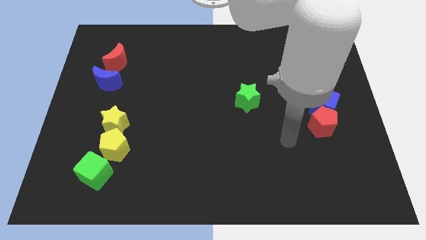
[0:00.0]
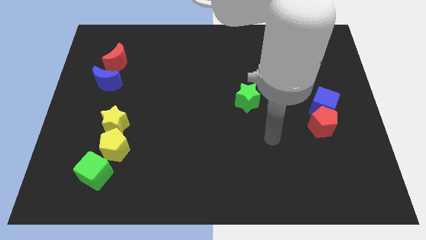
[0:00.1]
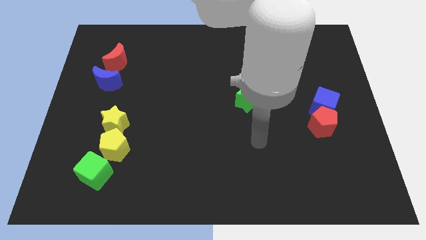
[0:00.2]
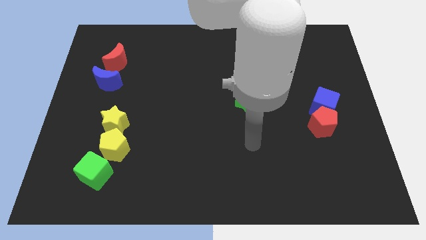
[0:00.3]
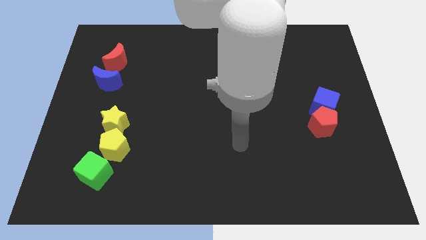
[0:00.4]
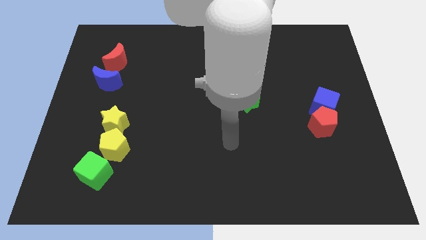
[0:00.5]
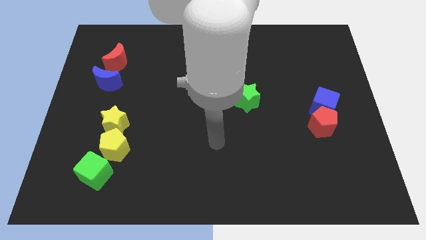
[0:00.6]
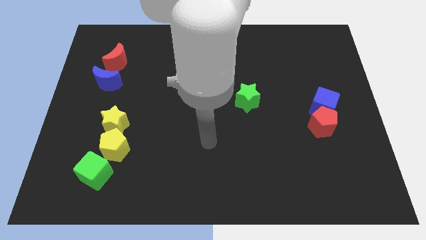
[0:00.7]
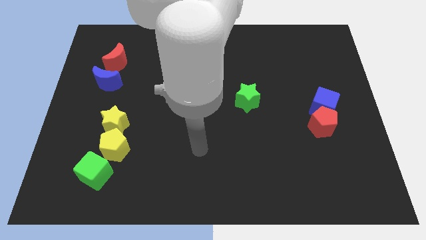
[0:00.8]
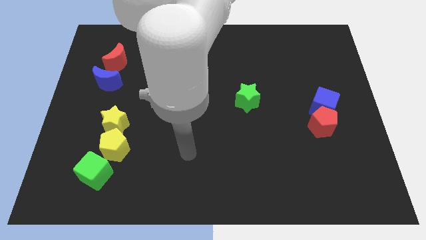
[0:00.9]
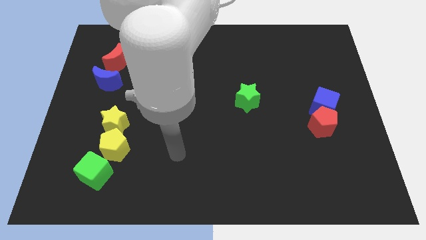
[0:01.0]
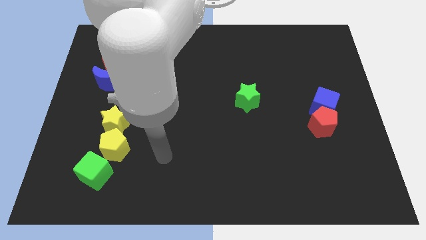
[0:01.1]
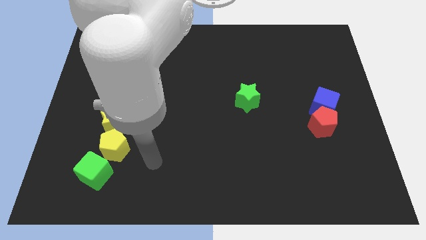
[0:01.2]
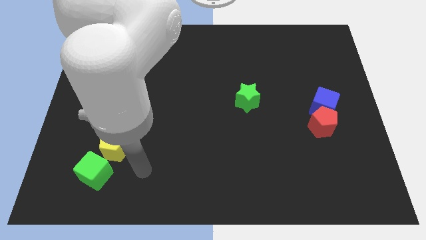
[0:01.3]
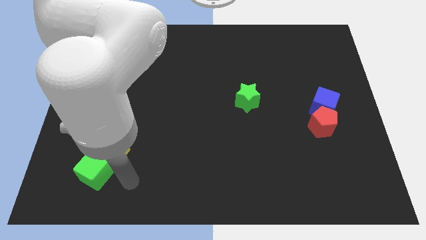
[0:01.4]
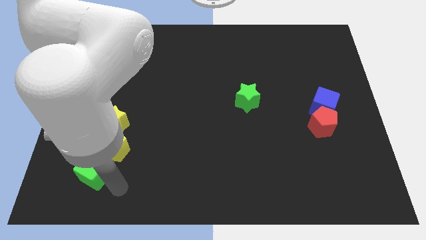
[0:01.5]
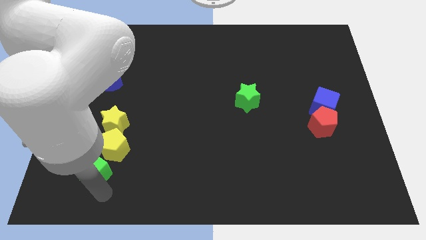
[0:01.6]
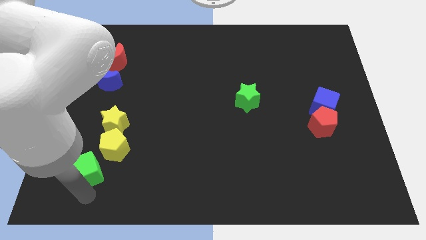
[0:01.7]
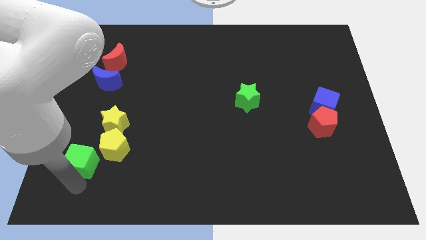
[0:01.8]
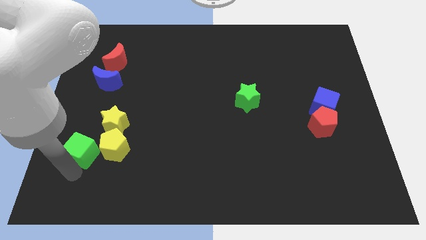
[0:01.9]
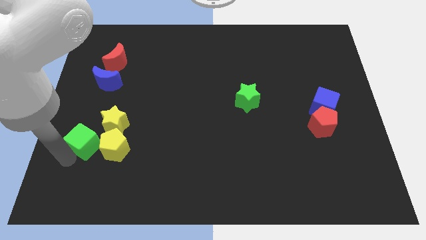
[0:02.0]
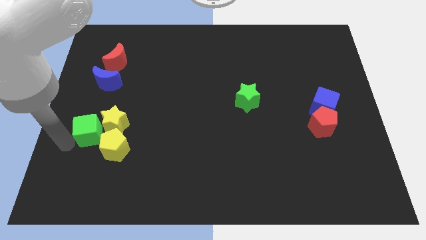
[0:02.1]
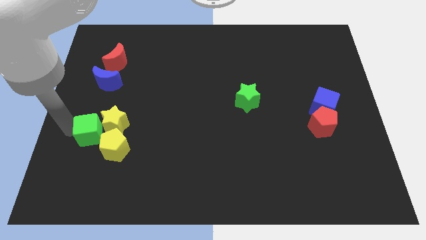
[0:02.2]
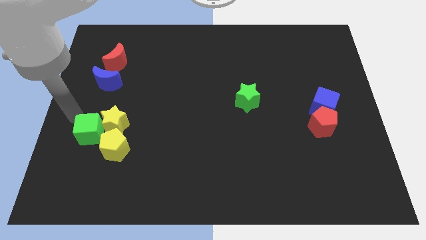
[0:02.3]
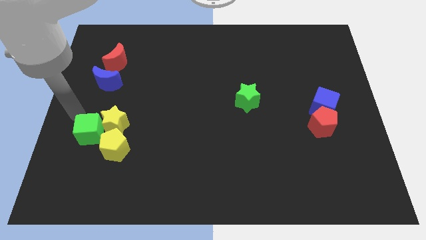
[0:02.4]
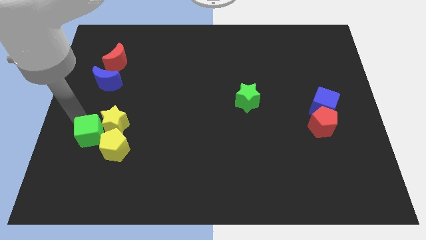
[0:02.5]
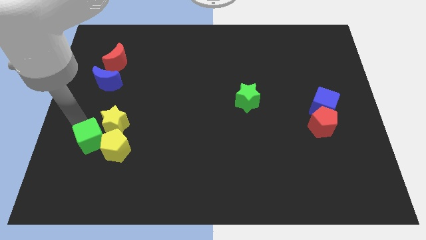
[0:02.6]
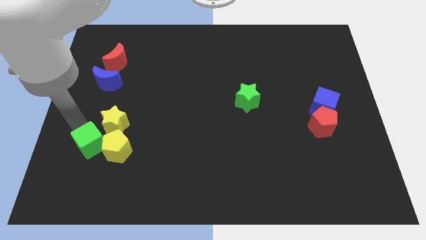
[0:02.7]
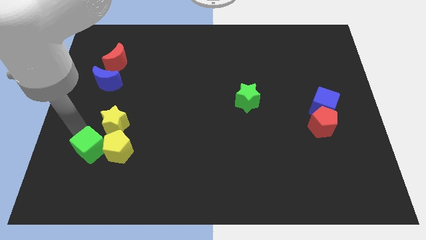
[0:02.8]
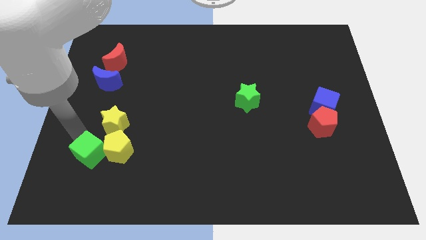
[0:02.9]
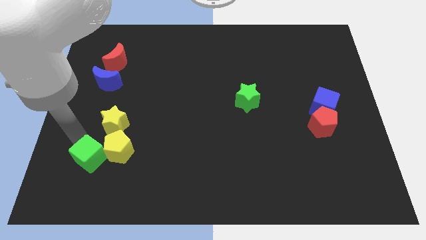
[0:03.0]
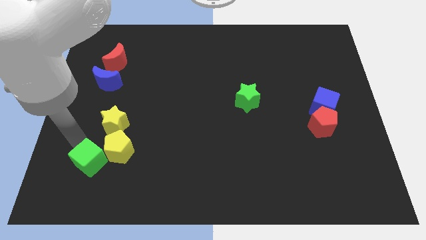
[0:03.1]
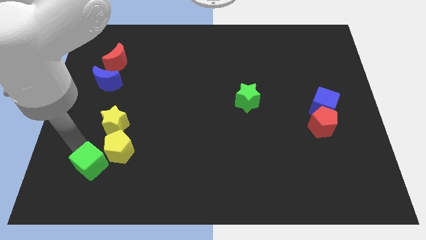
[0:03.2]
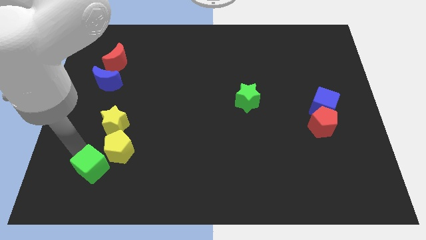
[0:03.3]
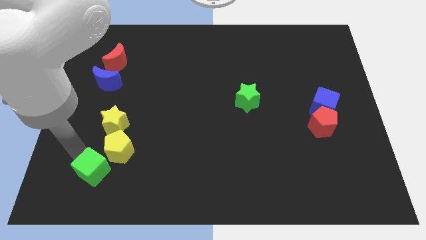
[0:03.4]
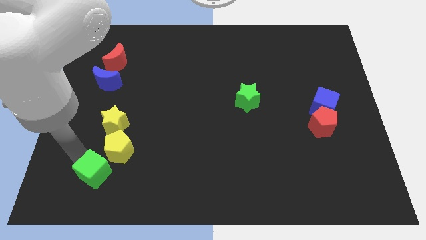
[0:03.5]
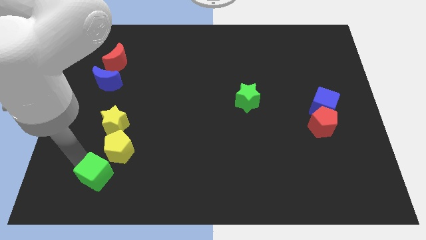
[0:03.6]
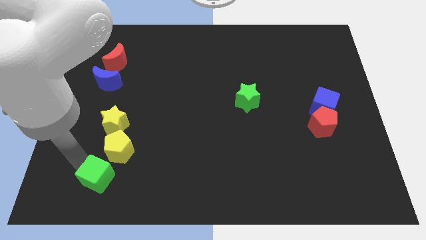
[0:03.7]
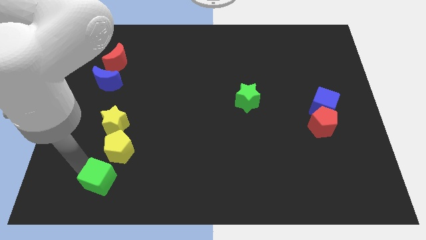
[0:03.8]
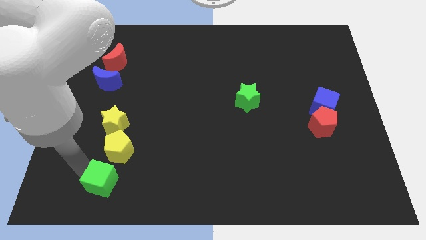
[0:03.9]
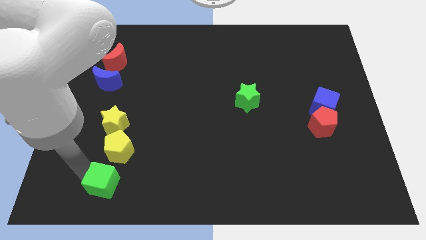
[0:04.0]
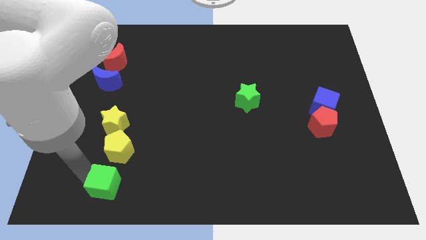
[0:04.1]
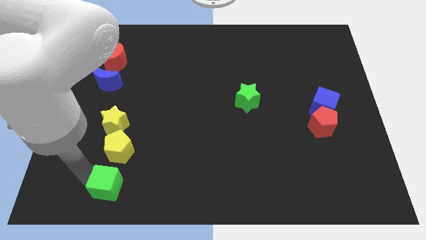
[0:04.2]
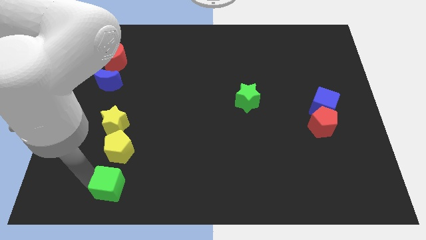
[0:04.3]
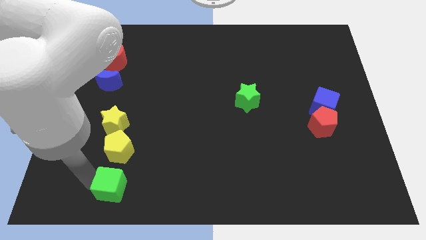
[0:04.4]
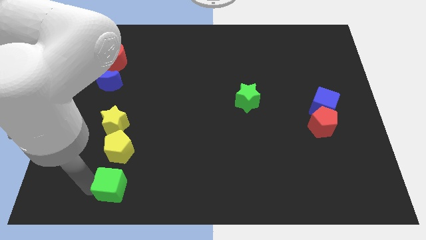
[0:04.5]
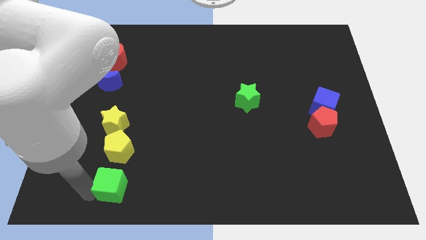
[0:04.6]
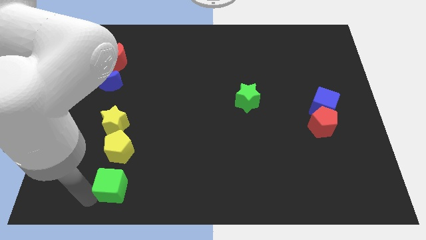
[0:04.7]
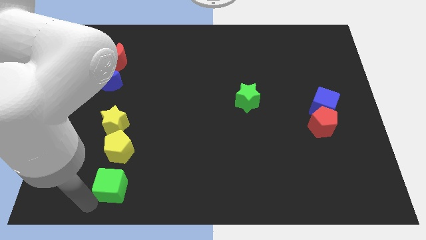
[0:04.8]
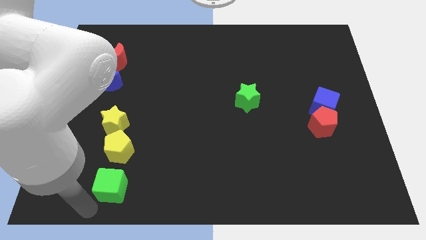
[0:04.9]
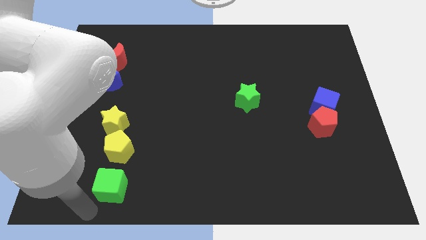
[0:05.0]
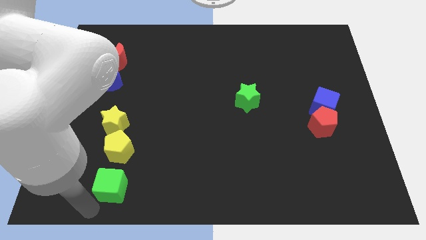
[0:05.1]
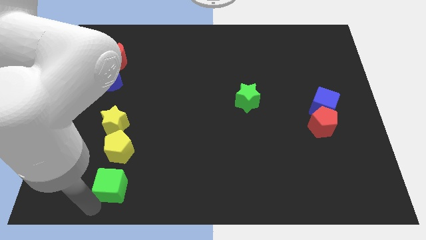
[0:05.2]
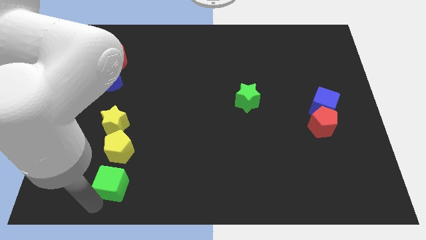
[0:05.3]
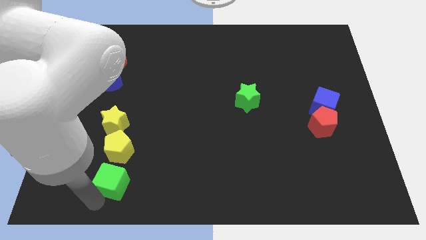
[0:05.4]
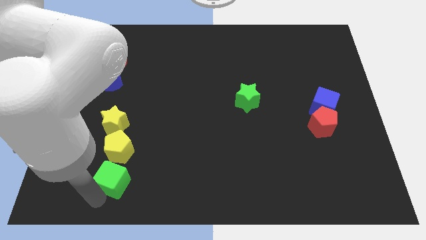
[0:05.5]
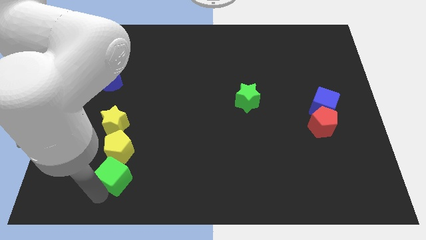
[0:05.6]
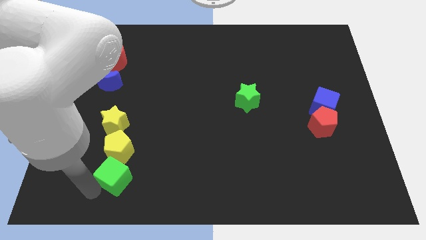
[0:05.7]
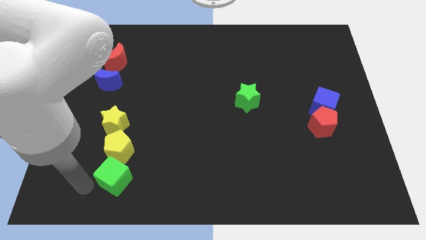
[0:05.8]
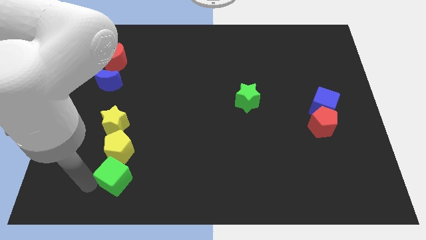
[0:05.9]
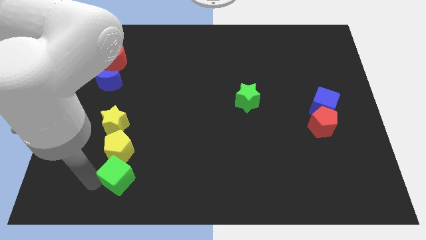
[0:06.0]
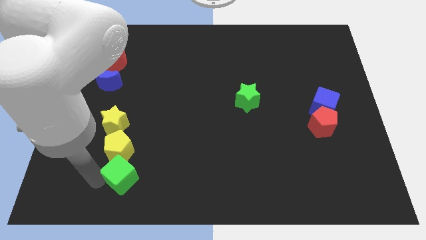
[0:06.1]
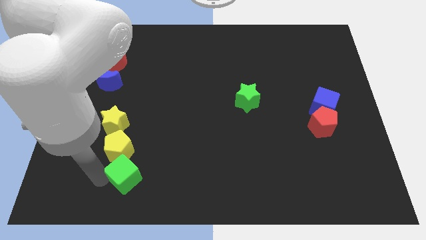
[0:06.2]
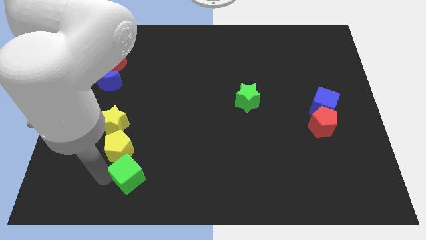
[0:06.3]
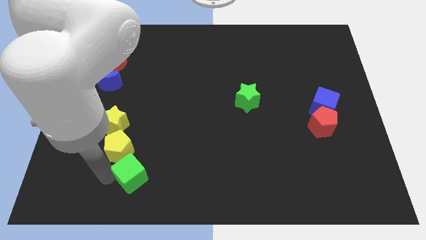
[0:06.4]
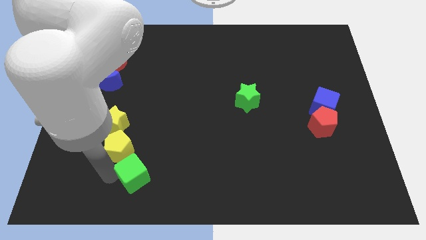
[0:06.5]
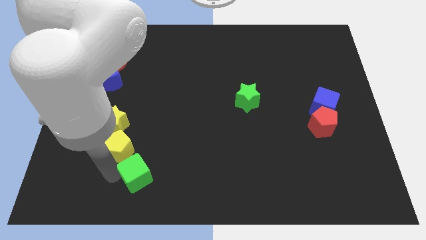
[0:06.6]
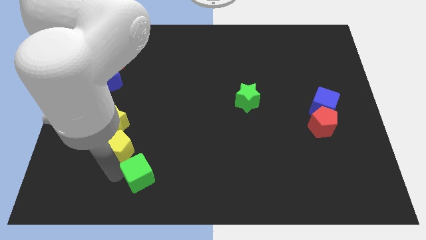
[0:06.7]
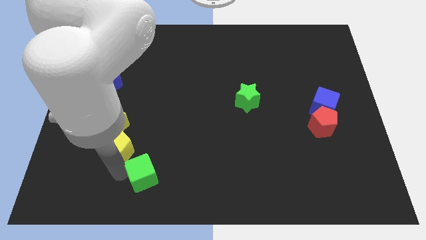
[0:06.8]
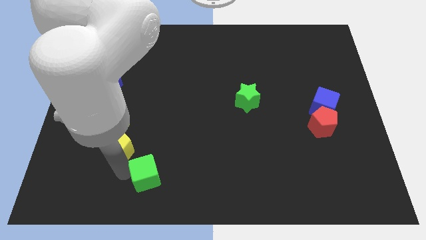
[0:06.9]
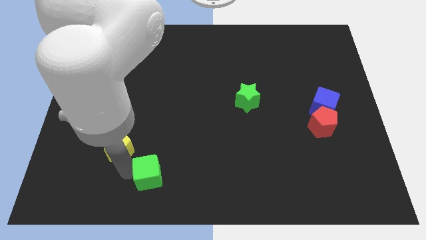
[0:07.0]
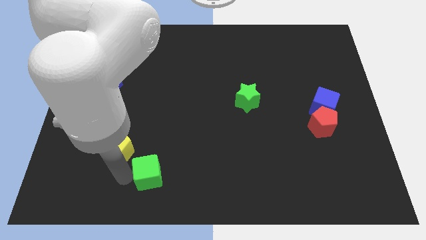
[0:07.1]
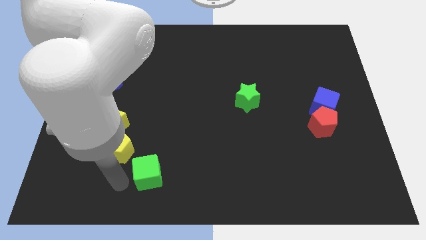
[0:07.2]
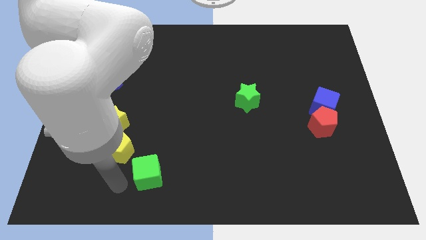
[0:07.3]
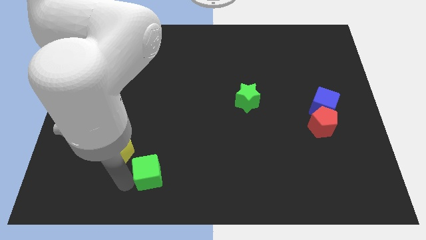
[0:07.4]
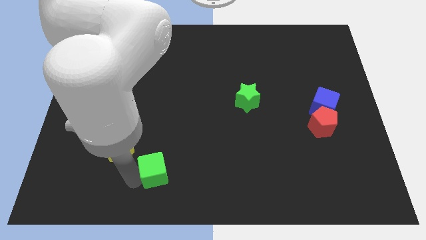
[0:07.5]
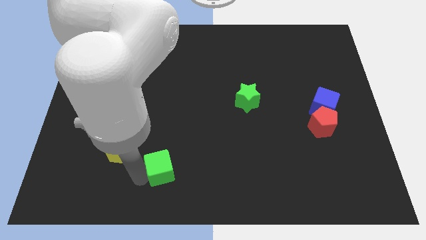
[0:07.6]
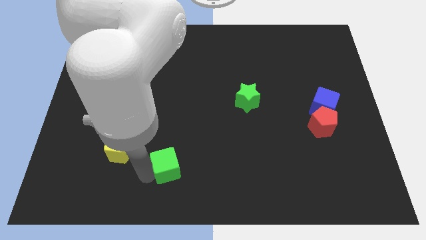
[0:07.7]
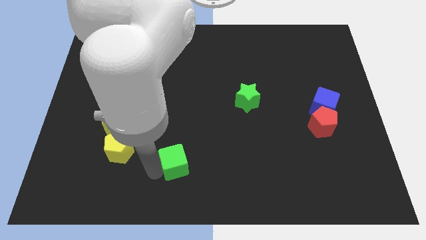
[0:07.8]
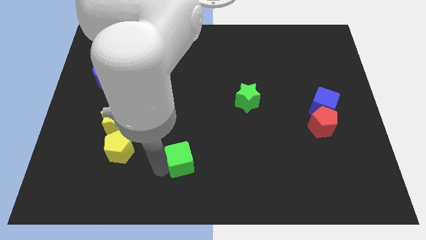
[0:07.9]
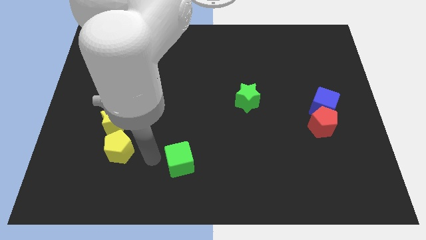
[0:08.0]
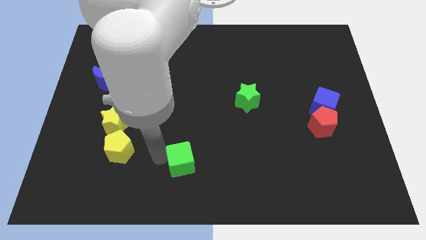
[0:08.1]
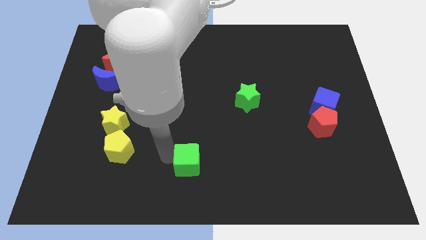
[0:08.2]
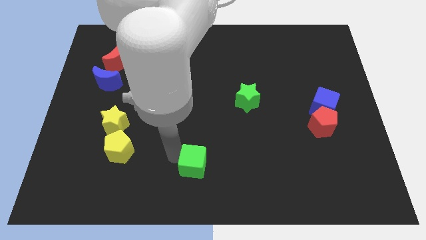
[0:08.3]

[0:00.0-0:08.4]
move the green cube to the right
